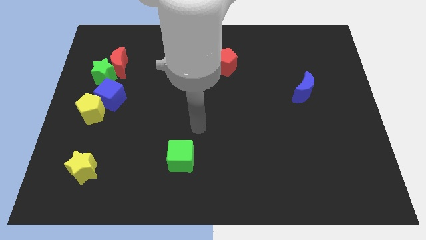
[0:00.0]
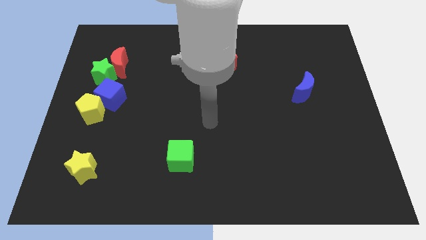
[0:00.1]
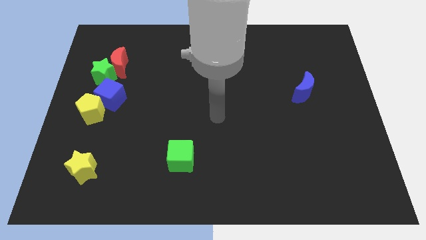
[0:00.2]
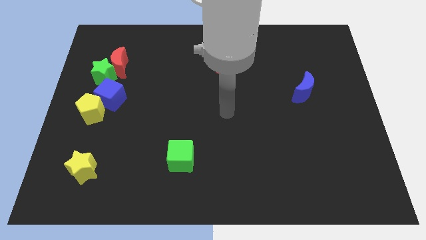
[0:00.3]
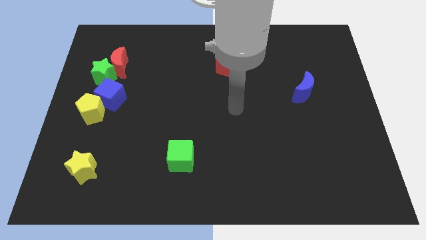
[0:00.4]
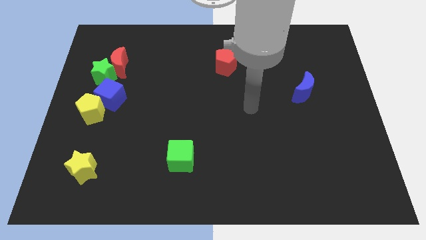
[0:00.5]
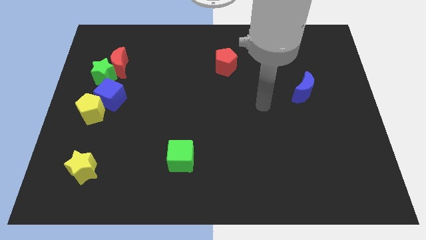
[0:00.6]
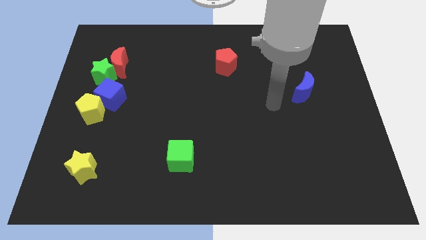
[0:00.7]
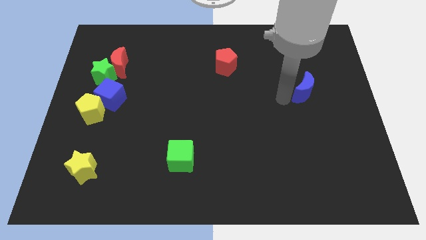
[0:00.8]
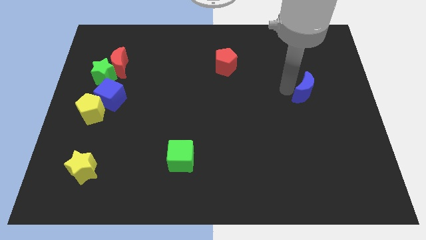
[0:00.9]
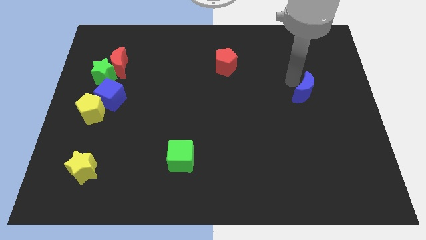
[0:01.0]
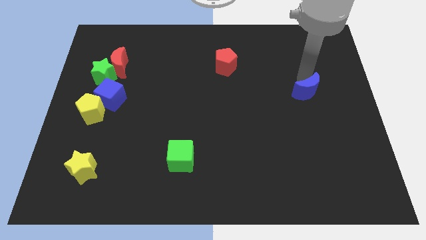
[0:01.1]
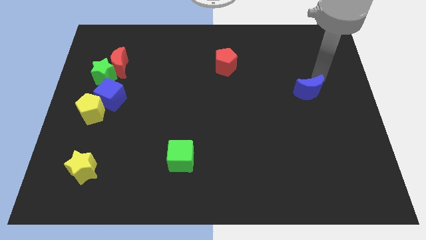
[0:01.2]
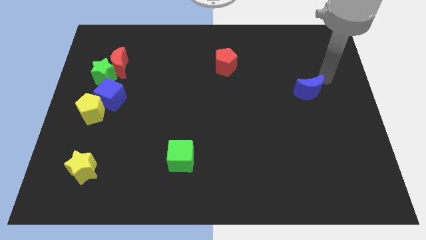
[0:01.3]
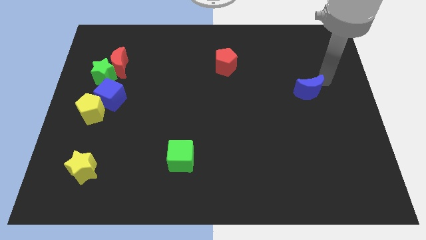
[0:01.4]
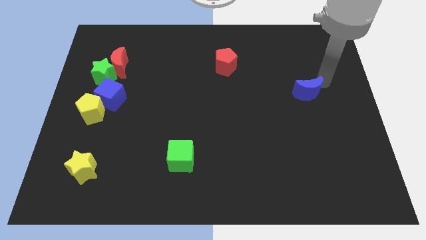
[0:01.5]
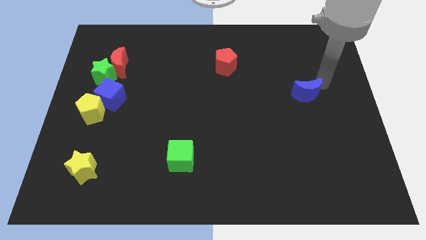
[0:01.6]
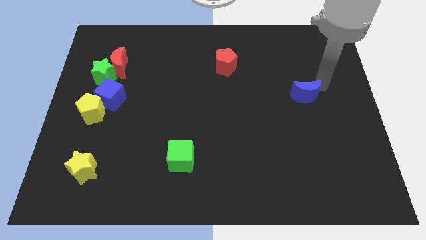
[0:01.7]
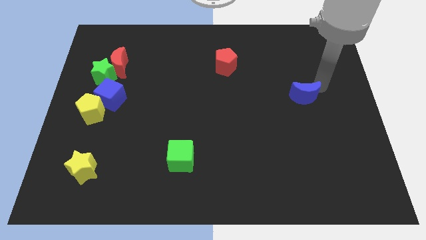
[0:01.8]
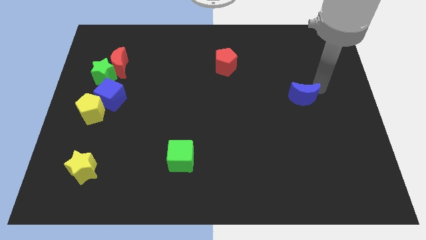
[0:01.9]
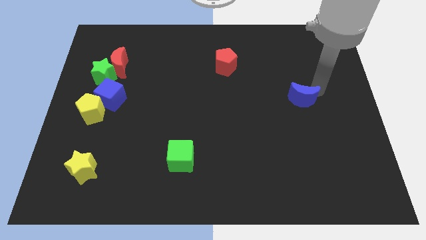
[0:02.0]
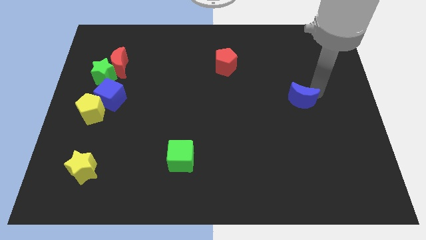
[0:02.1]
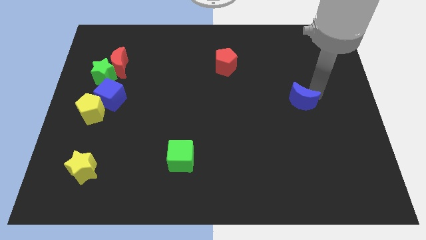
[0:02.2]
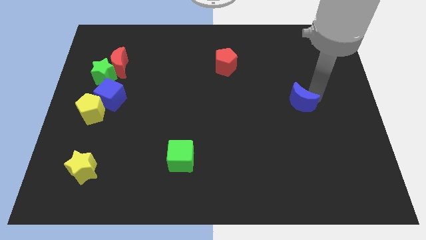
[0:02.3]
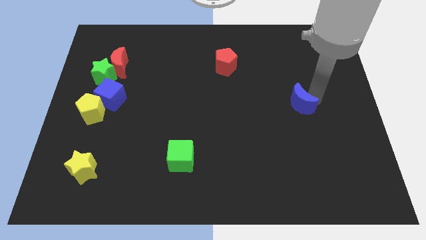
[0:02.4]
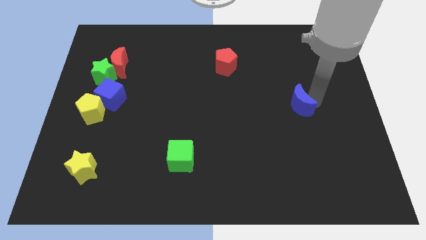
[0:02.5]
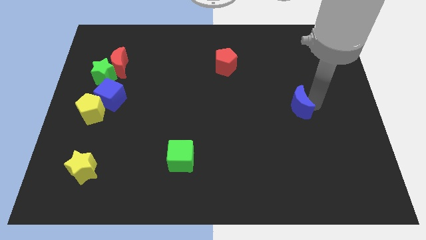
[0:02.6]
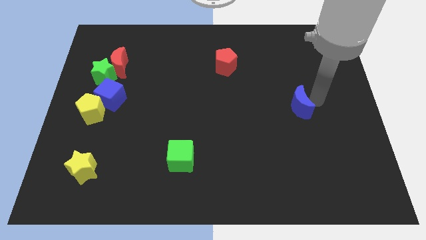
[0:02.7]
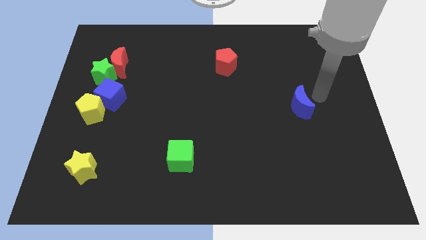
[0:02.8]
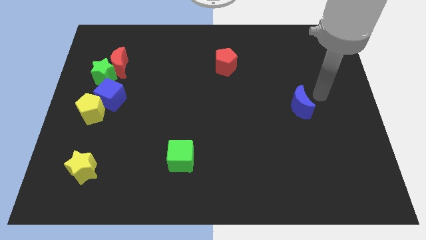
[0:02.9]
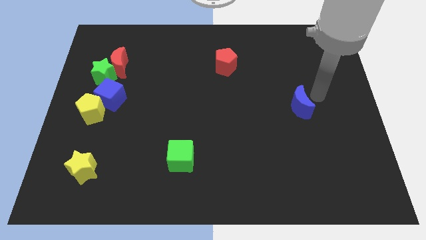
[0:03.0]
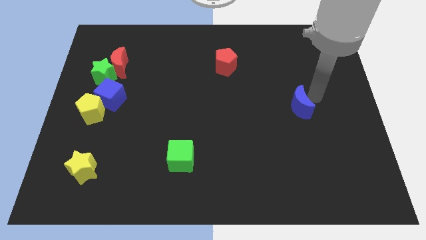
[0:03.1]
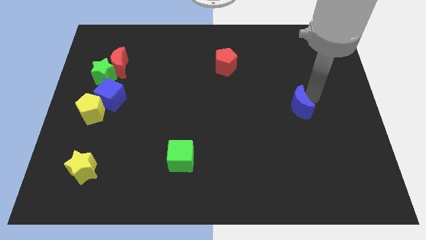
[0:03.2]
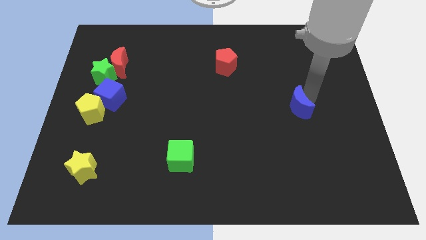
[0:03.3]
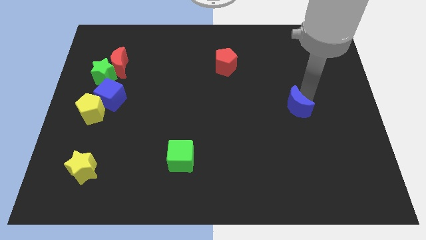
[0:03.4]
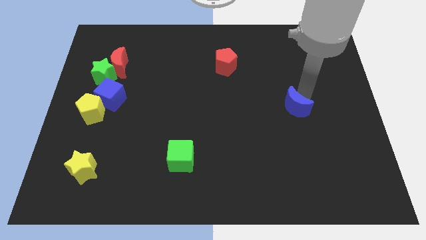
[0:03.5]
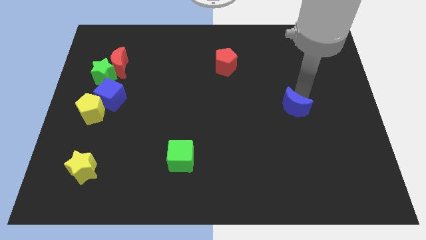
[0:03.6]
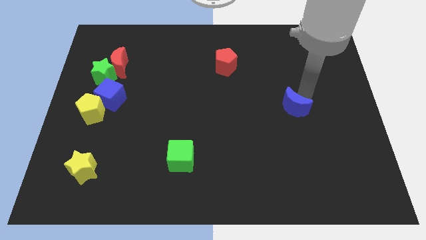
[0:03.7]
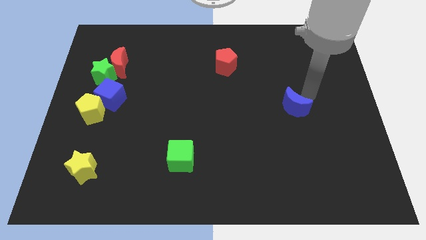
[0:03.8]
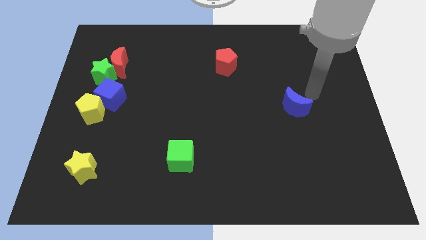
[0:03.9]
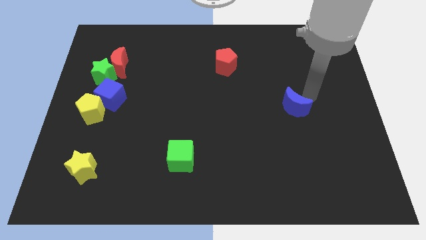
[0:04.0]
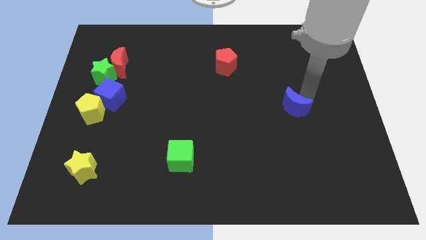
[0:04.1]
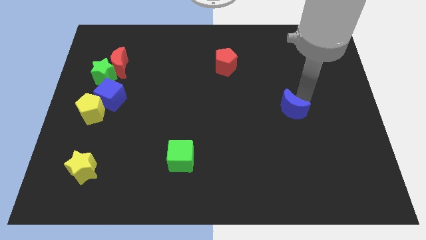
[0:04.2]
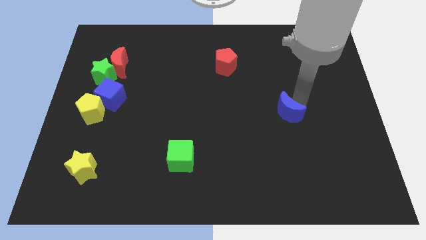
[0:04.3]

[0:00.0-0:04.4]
slightly move the blue moon down and left

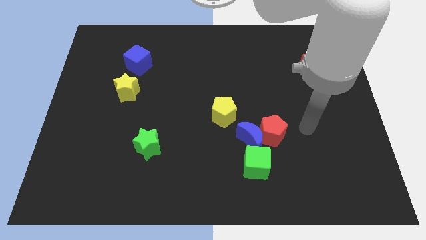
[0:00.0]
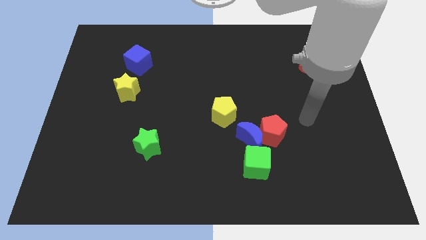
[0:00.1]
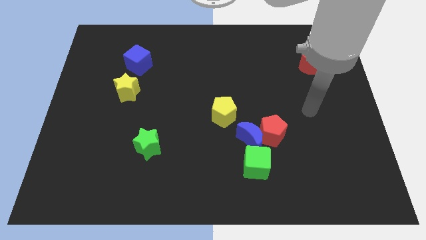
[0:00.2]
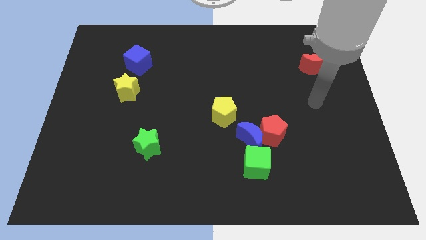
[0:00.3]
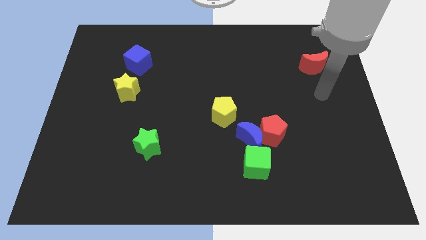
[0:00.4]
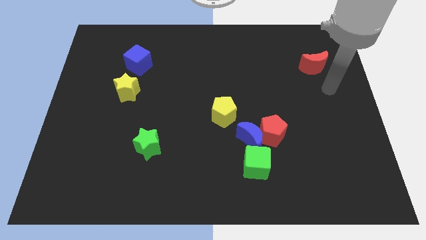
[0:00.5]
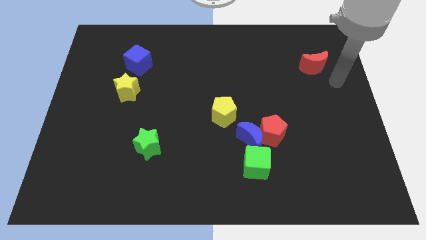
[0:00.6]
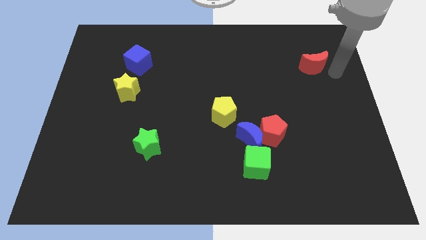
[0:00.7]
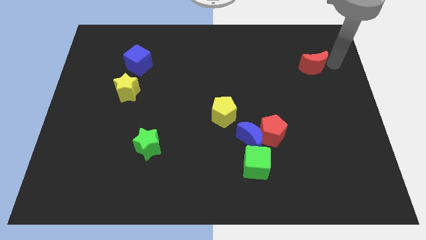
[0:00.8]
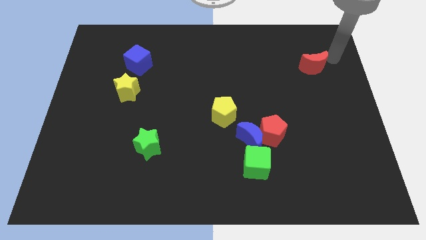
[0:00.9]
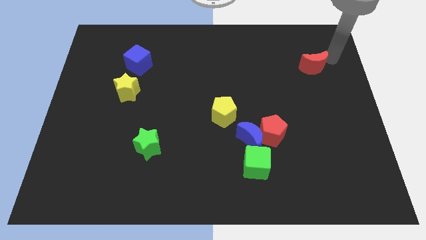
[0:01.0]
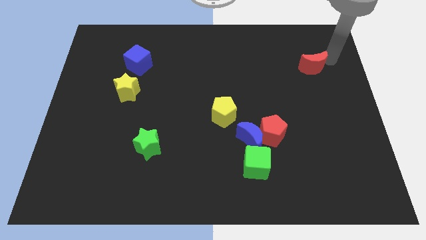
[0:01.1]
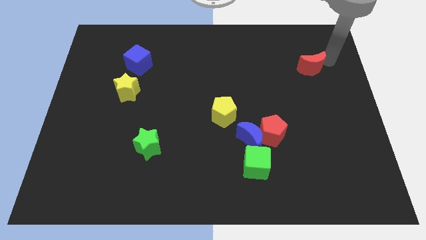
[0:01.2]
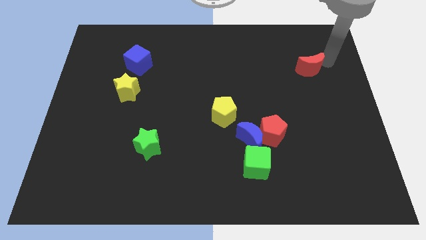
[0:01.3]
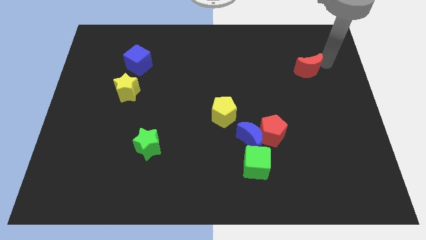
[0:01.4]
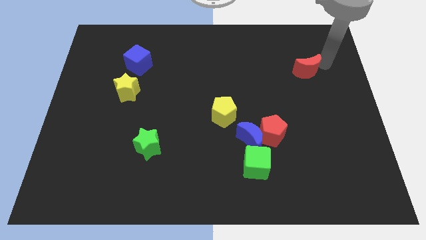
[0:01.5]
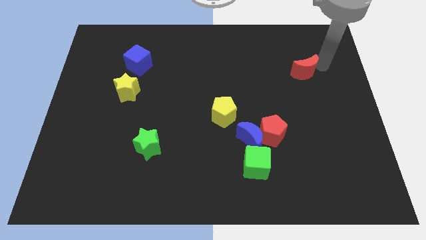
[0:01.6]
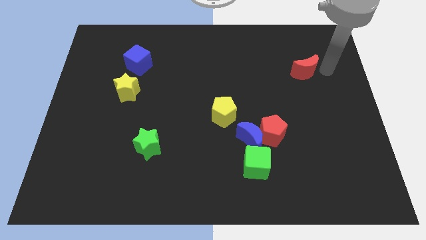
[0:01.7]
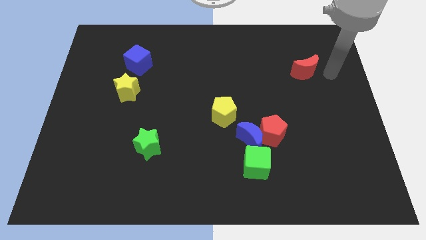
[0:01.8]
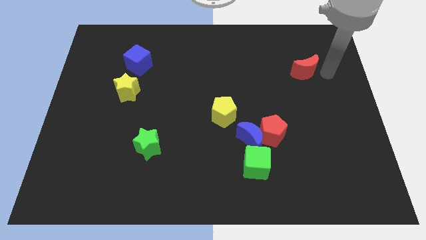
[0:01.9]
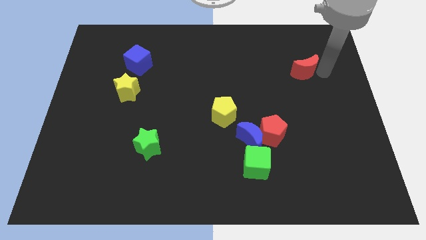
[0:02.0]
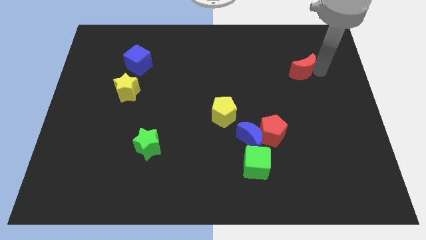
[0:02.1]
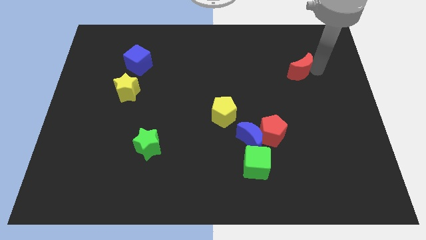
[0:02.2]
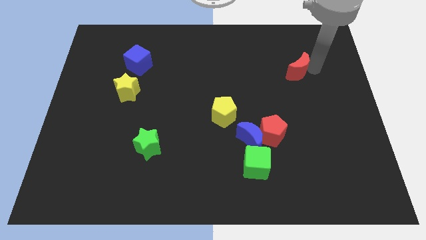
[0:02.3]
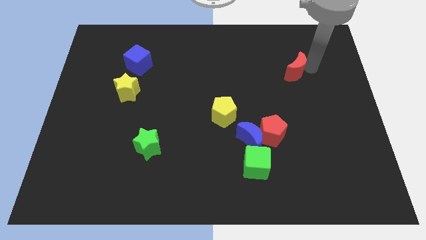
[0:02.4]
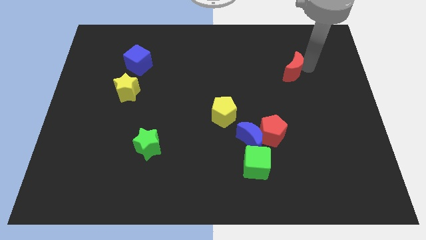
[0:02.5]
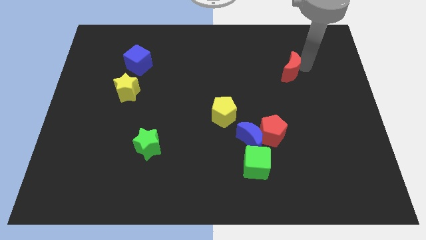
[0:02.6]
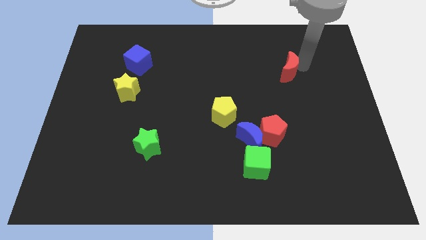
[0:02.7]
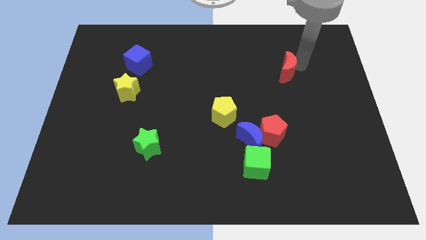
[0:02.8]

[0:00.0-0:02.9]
push the red moon somewhat to the left

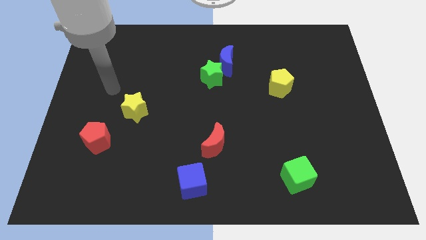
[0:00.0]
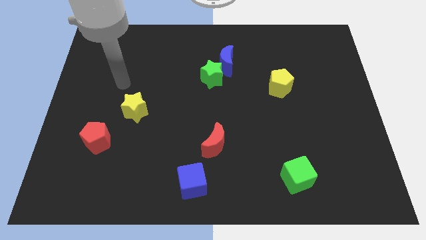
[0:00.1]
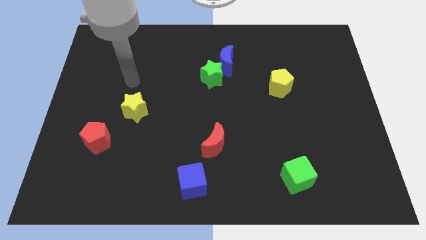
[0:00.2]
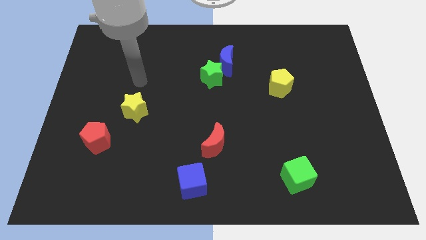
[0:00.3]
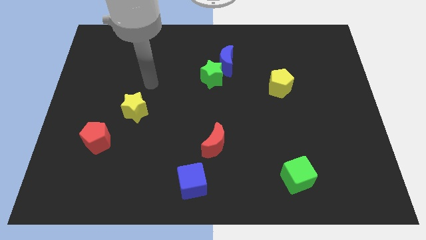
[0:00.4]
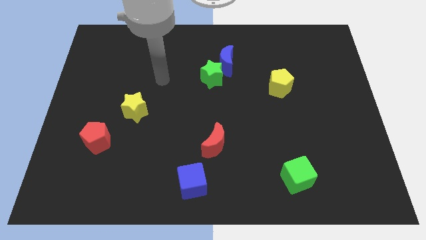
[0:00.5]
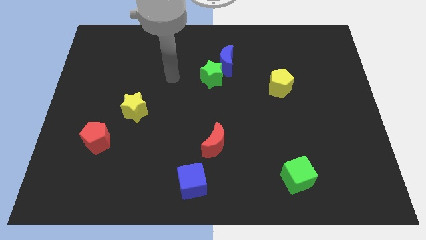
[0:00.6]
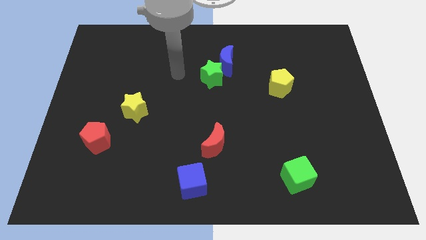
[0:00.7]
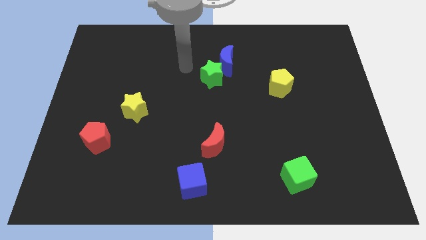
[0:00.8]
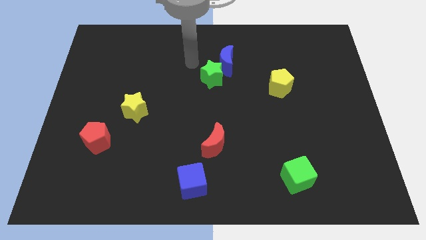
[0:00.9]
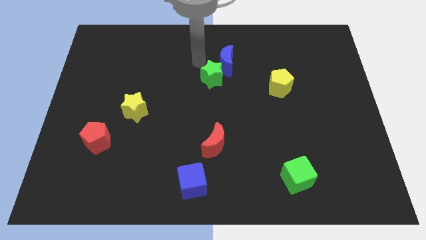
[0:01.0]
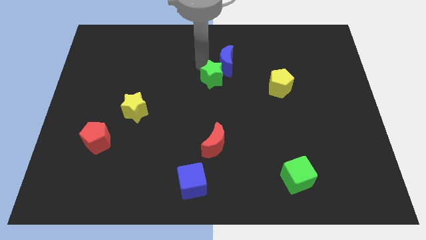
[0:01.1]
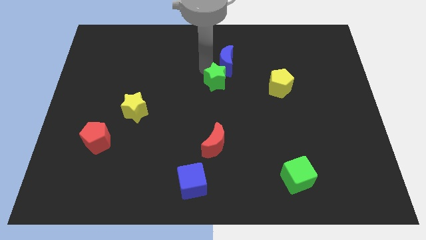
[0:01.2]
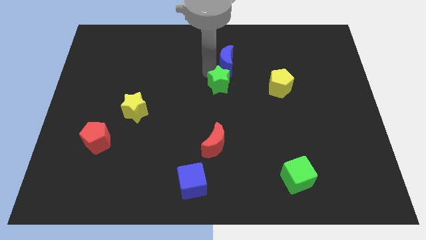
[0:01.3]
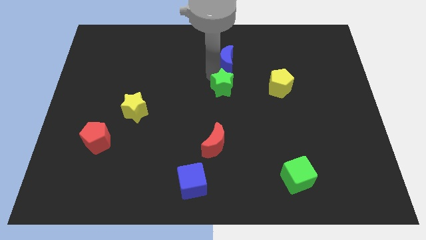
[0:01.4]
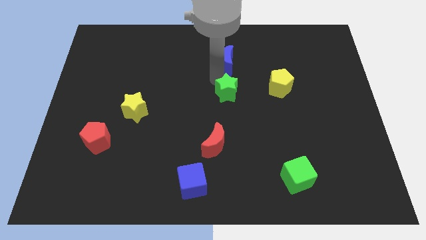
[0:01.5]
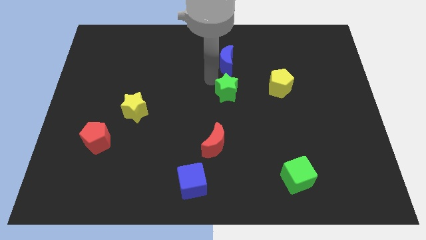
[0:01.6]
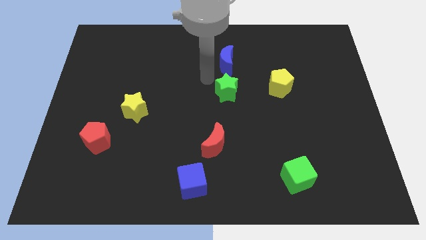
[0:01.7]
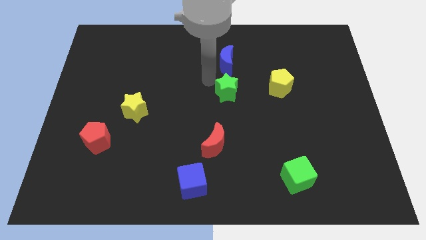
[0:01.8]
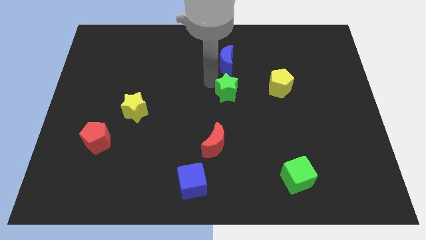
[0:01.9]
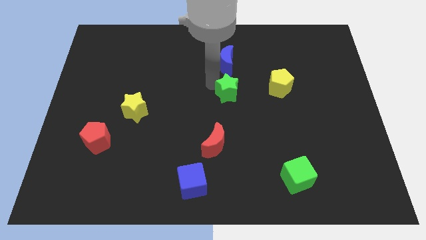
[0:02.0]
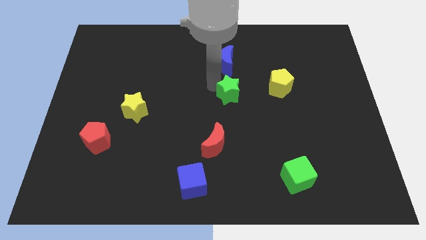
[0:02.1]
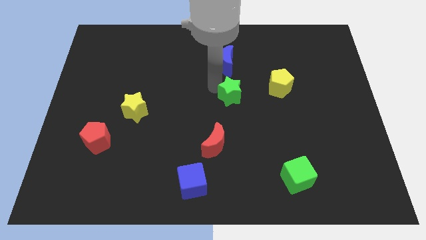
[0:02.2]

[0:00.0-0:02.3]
push the green star diagonally downwards and right slightly
